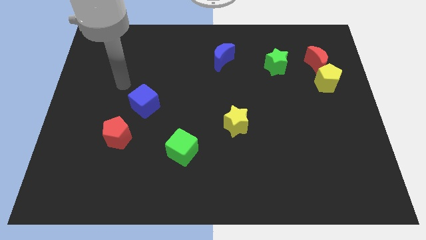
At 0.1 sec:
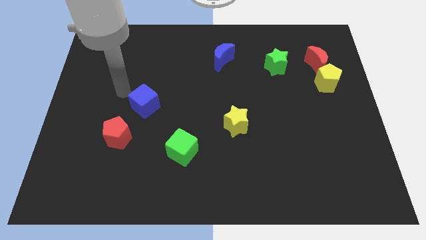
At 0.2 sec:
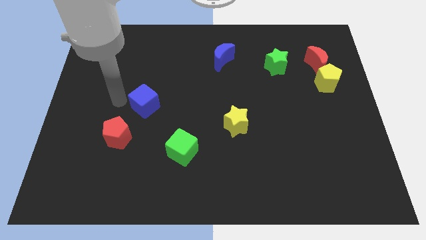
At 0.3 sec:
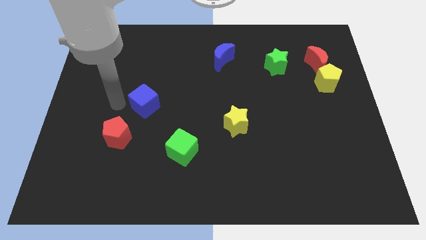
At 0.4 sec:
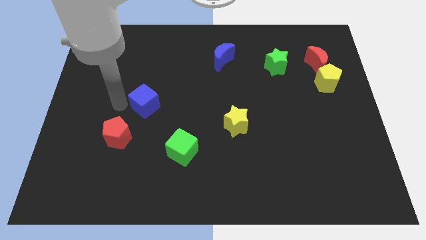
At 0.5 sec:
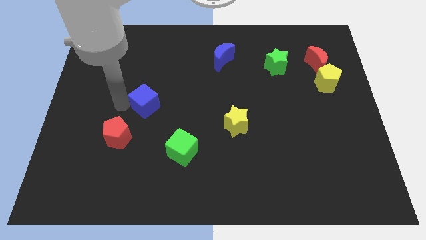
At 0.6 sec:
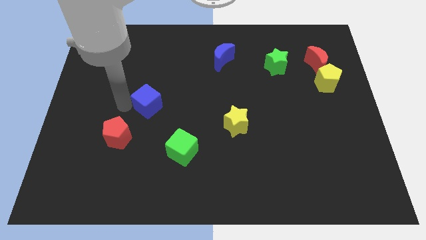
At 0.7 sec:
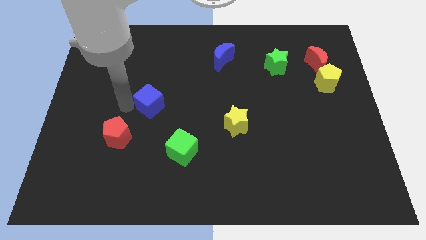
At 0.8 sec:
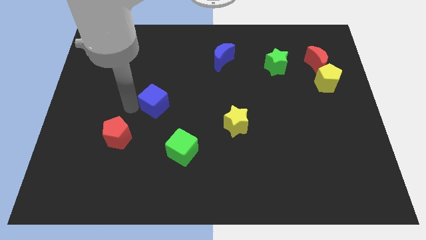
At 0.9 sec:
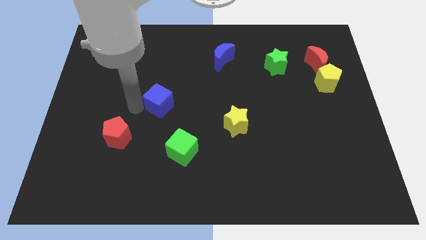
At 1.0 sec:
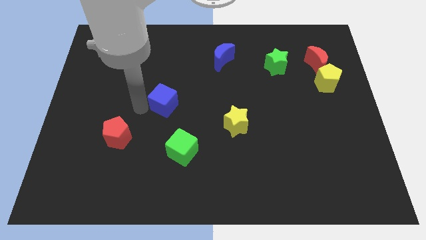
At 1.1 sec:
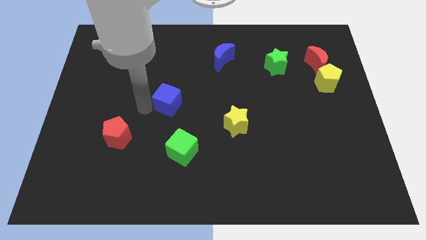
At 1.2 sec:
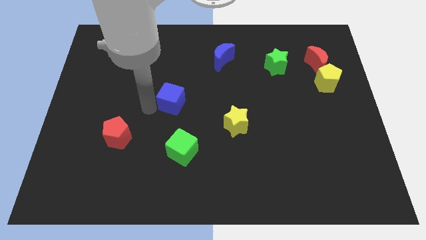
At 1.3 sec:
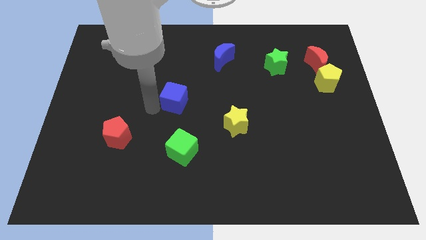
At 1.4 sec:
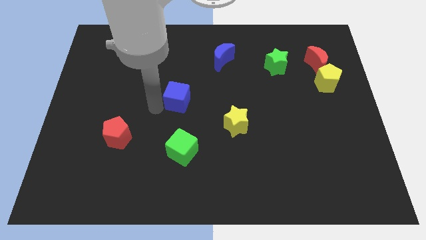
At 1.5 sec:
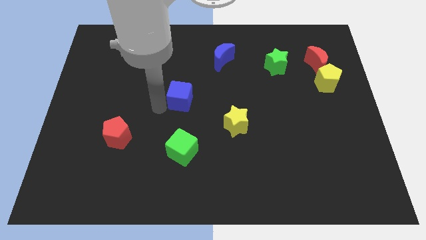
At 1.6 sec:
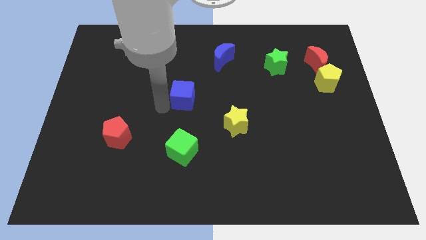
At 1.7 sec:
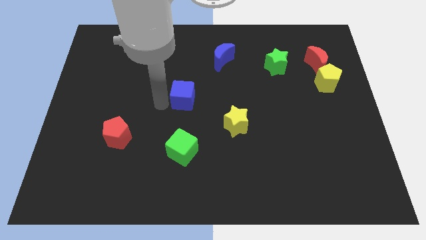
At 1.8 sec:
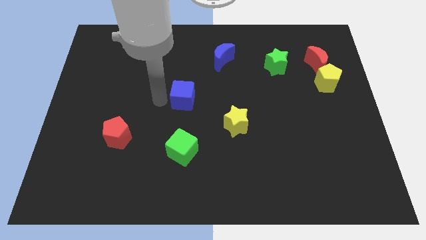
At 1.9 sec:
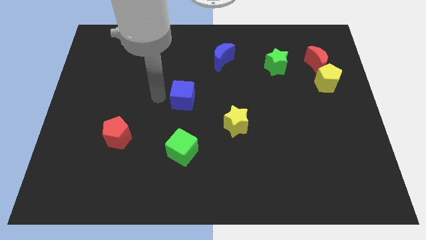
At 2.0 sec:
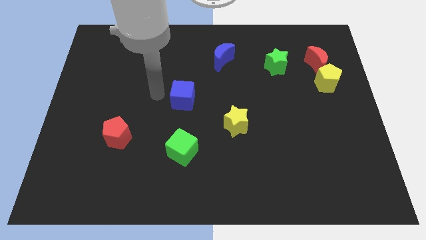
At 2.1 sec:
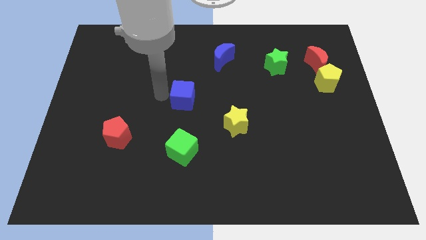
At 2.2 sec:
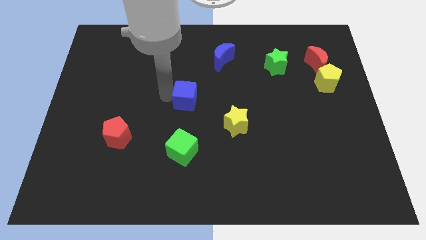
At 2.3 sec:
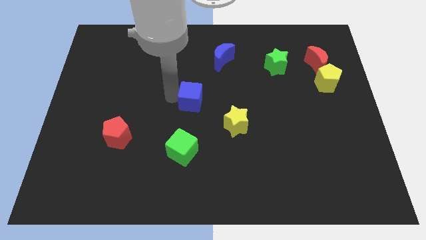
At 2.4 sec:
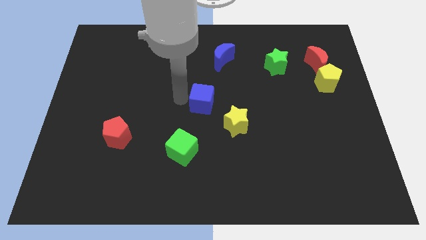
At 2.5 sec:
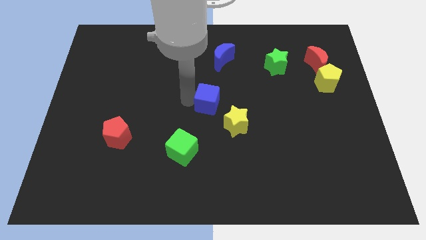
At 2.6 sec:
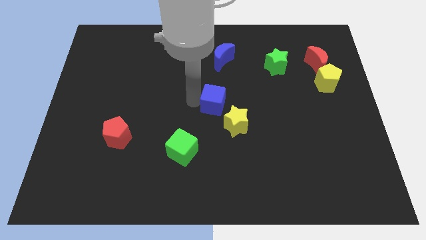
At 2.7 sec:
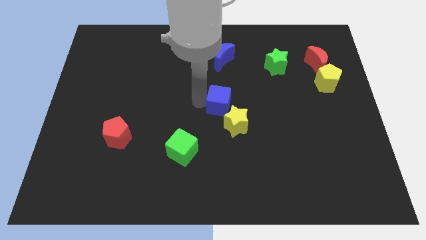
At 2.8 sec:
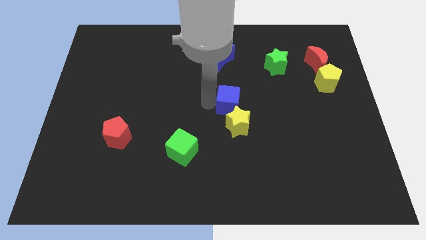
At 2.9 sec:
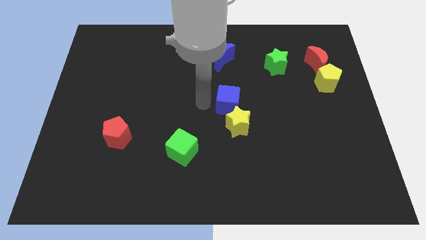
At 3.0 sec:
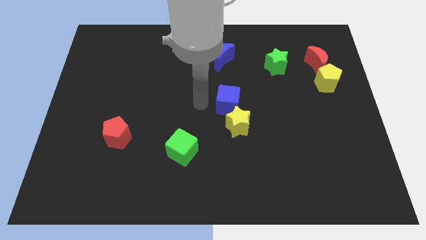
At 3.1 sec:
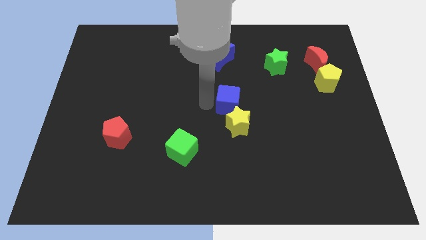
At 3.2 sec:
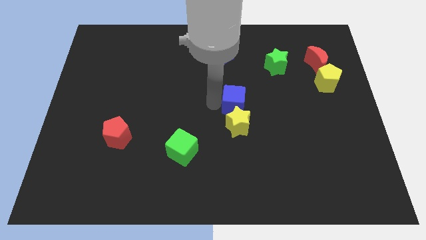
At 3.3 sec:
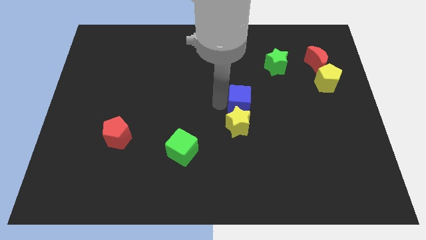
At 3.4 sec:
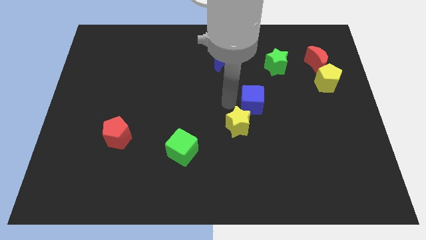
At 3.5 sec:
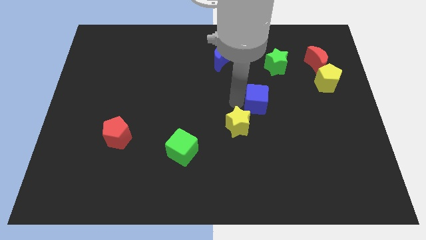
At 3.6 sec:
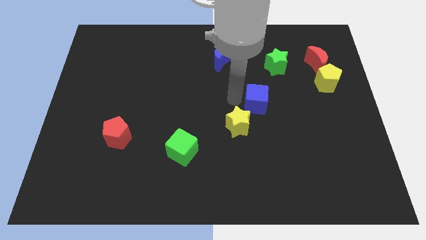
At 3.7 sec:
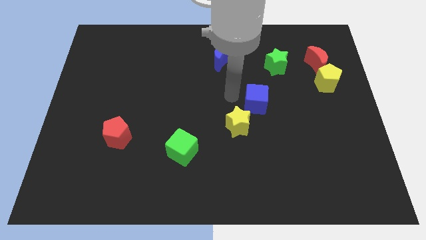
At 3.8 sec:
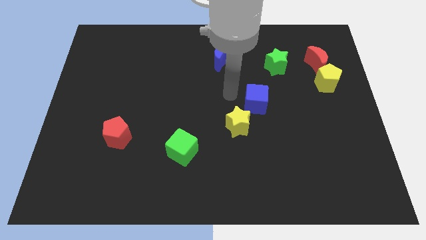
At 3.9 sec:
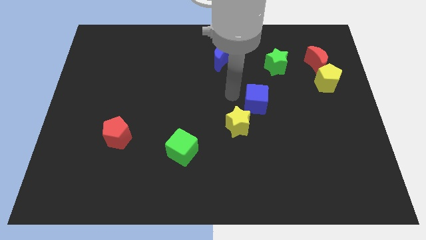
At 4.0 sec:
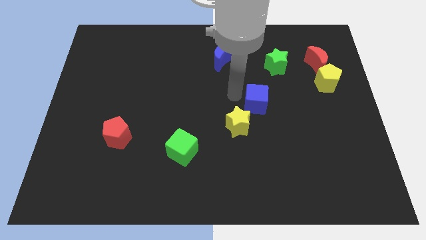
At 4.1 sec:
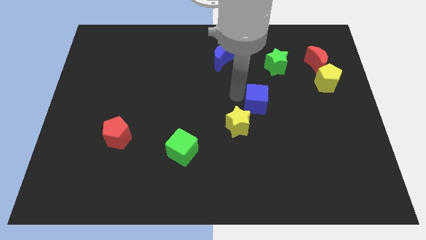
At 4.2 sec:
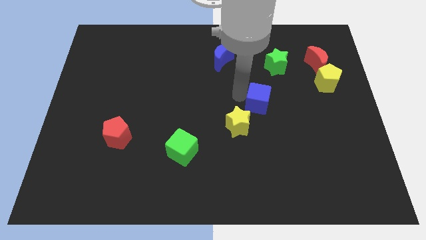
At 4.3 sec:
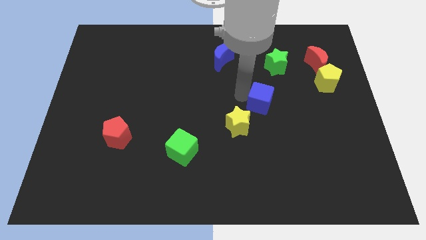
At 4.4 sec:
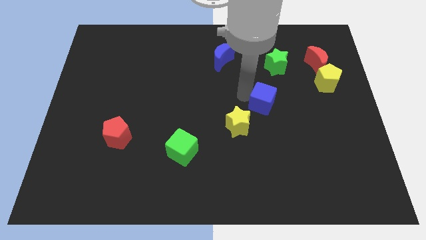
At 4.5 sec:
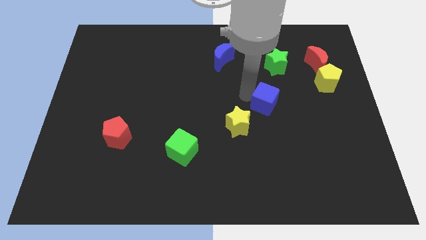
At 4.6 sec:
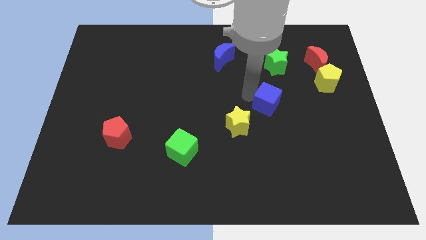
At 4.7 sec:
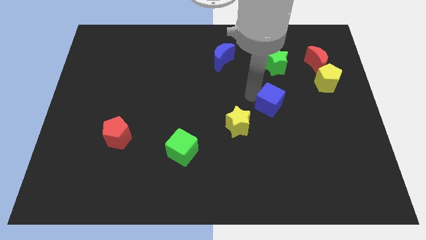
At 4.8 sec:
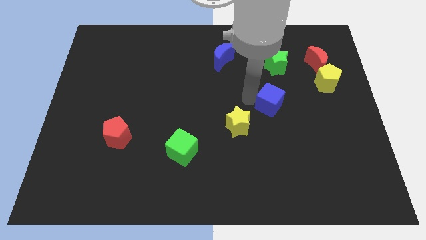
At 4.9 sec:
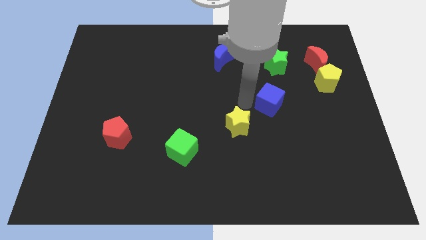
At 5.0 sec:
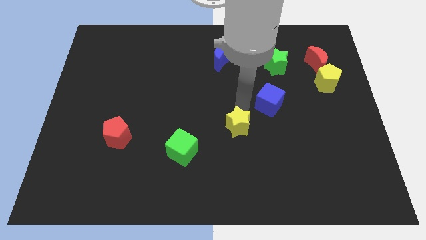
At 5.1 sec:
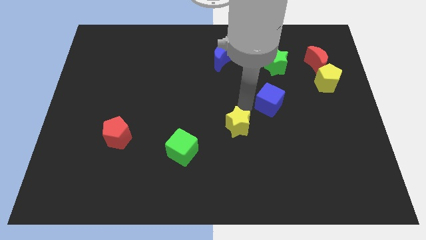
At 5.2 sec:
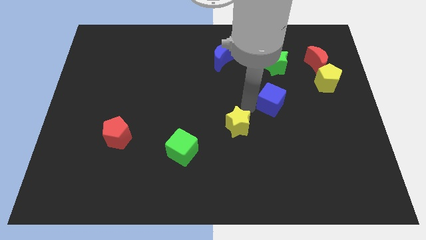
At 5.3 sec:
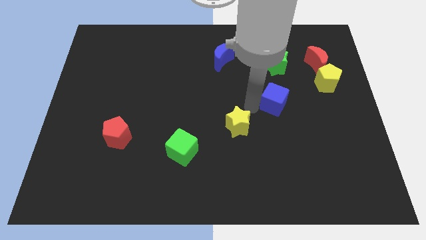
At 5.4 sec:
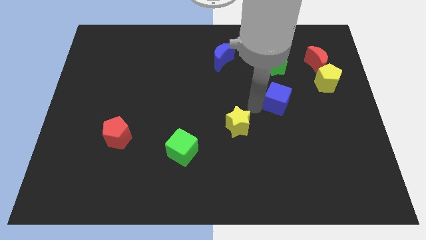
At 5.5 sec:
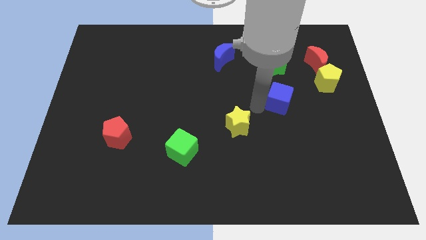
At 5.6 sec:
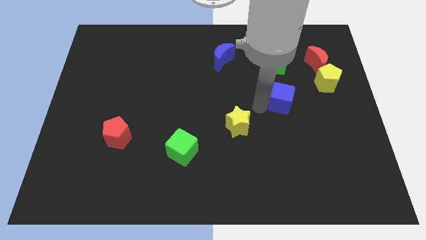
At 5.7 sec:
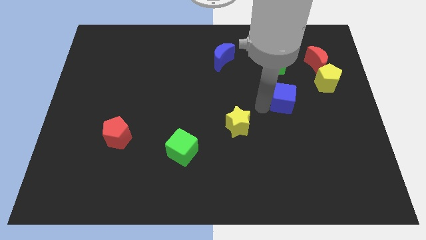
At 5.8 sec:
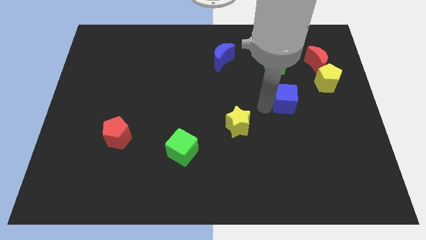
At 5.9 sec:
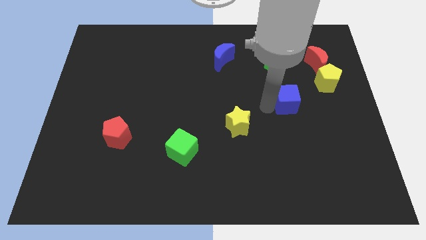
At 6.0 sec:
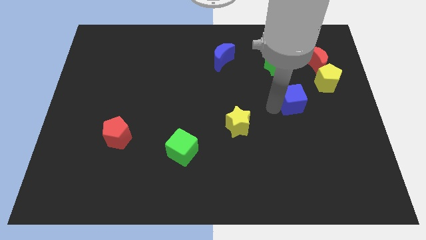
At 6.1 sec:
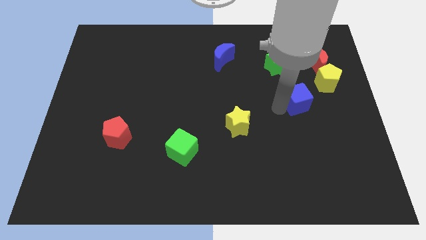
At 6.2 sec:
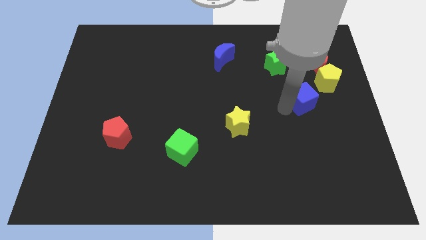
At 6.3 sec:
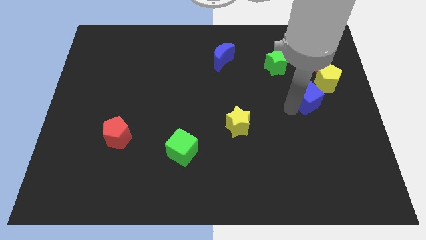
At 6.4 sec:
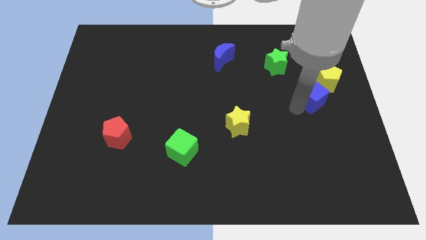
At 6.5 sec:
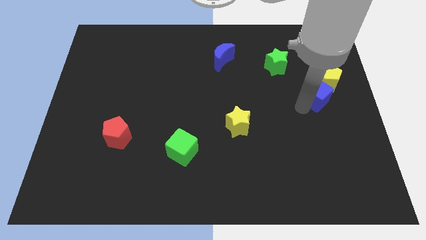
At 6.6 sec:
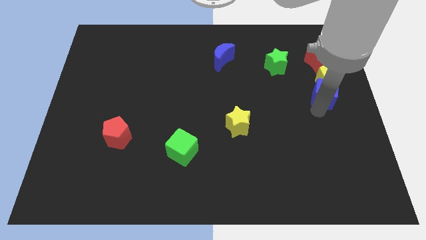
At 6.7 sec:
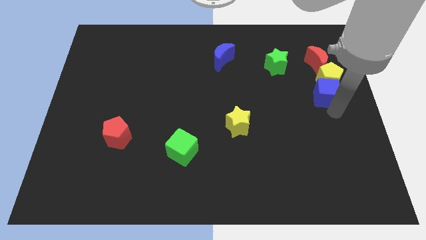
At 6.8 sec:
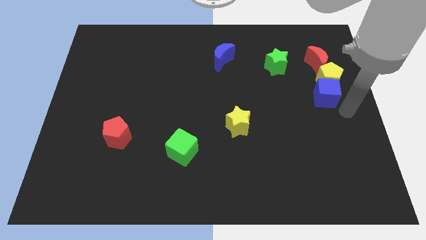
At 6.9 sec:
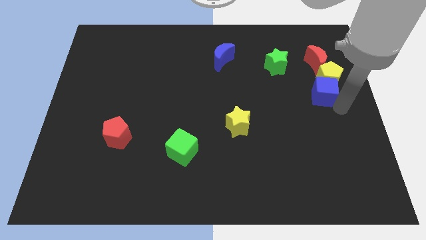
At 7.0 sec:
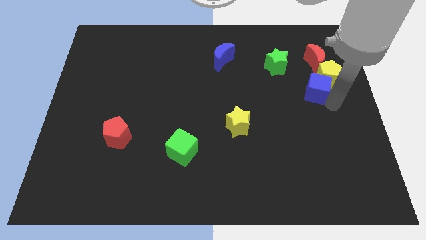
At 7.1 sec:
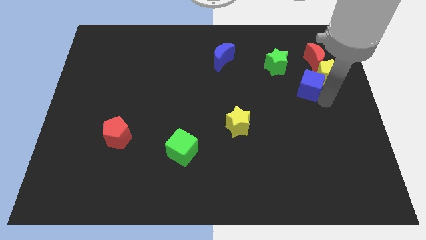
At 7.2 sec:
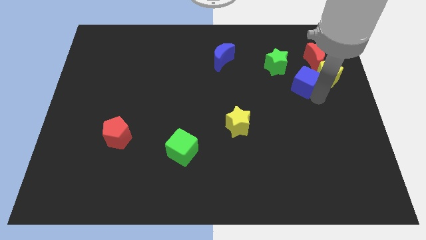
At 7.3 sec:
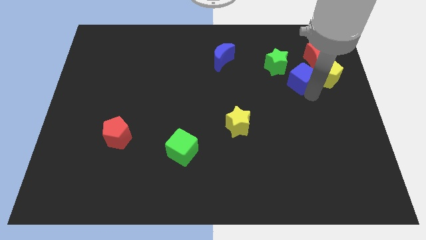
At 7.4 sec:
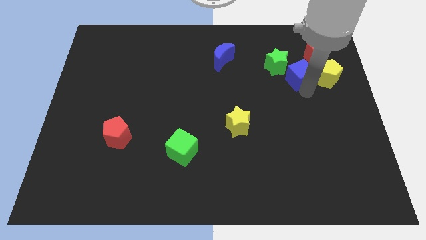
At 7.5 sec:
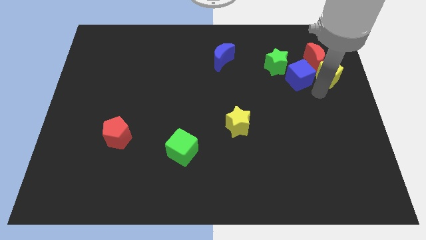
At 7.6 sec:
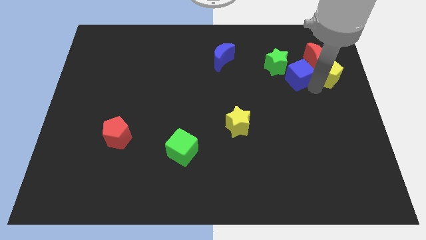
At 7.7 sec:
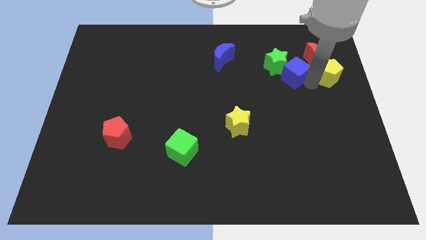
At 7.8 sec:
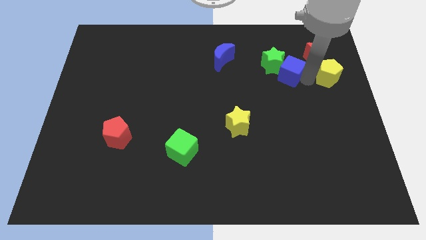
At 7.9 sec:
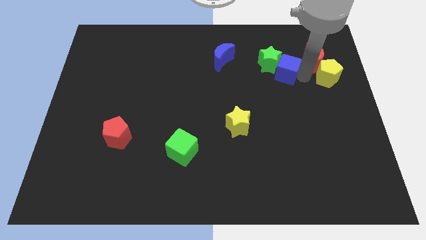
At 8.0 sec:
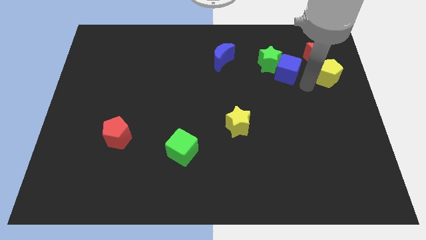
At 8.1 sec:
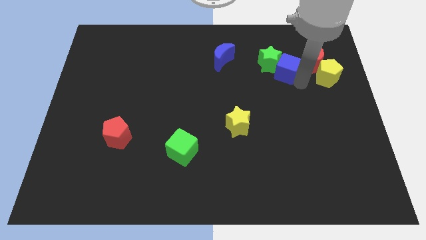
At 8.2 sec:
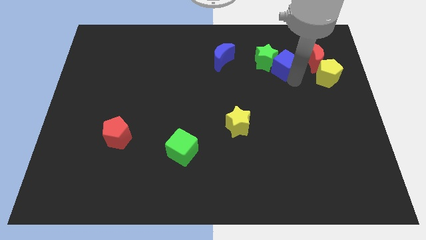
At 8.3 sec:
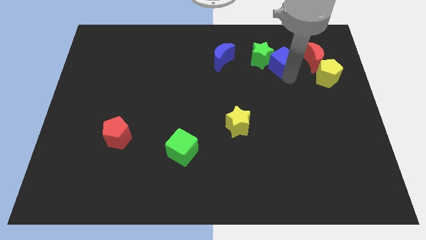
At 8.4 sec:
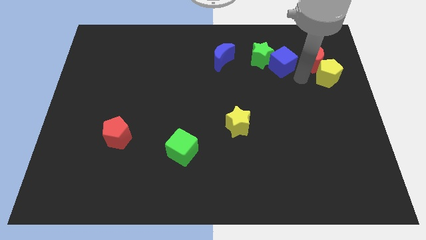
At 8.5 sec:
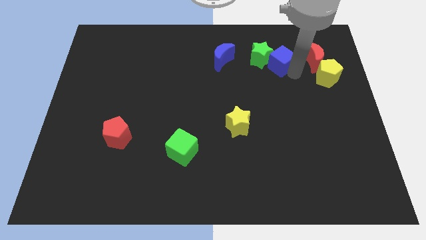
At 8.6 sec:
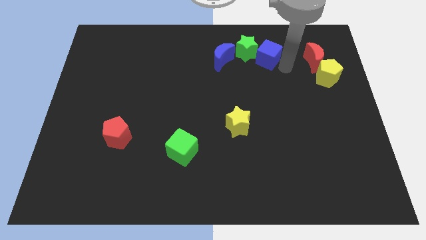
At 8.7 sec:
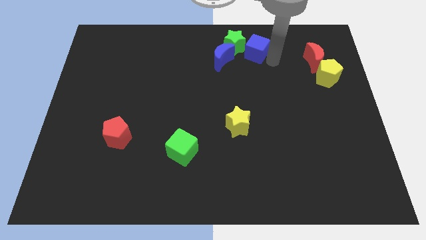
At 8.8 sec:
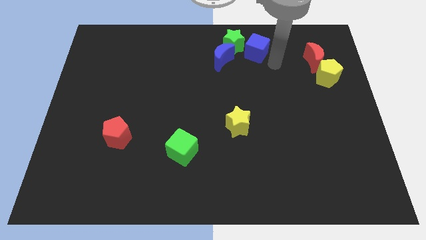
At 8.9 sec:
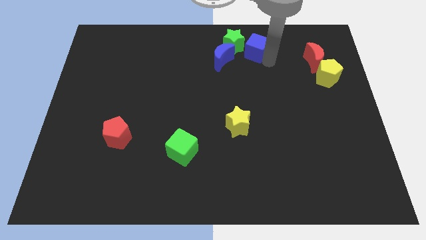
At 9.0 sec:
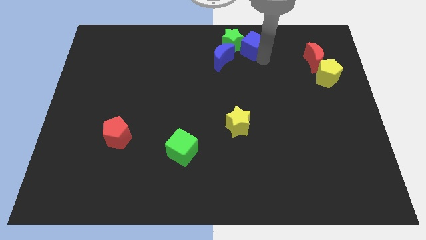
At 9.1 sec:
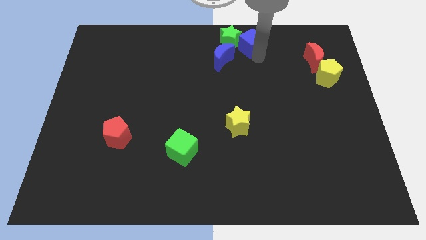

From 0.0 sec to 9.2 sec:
push the blue cube to the top
